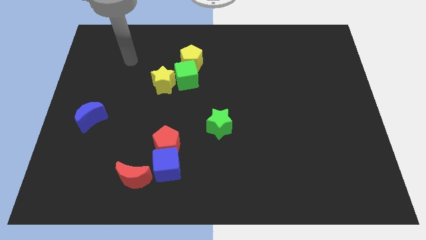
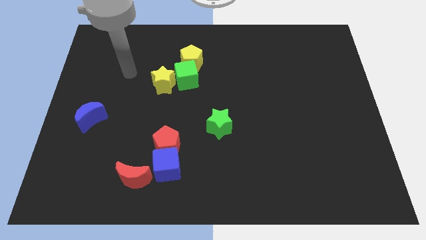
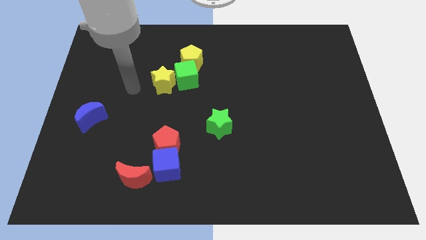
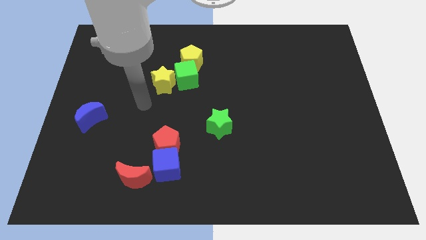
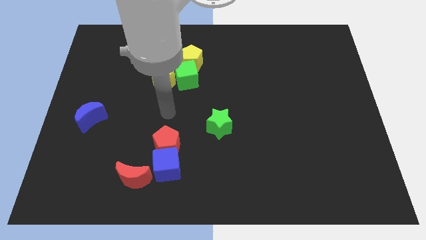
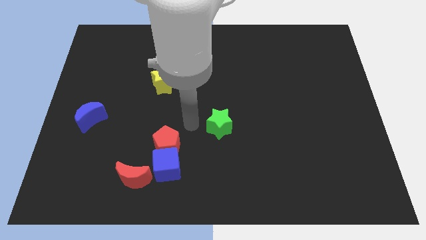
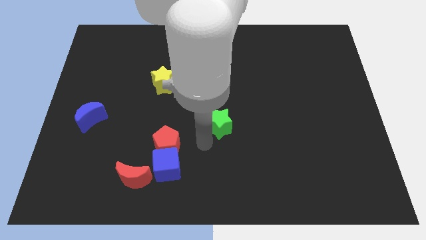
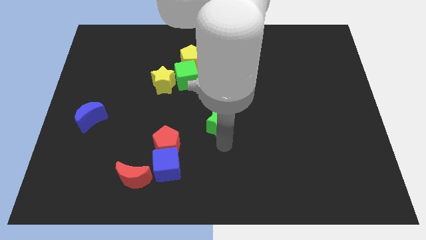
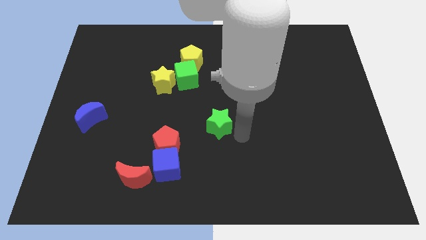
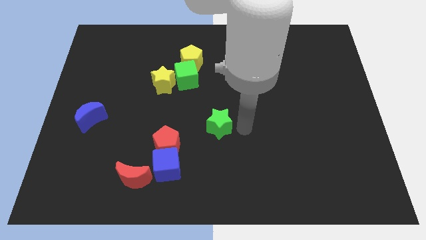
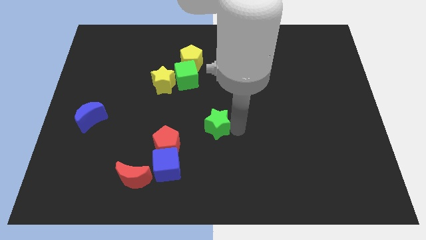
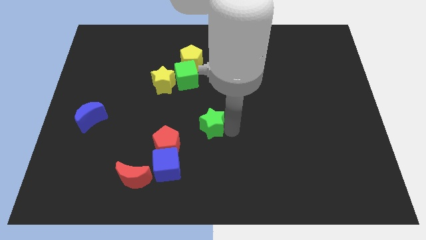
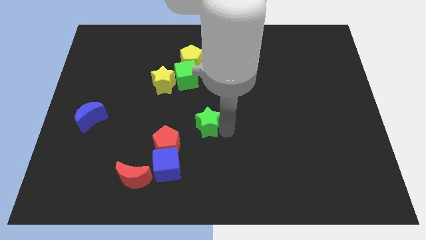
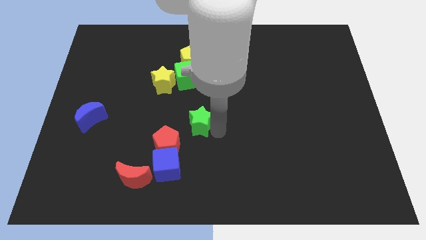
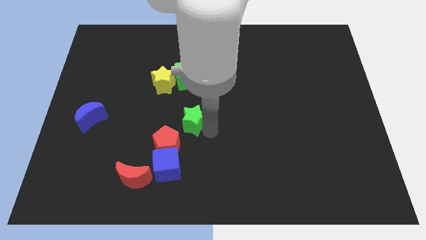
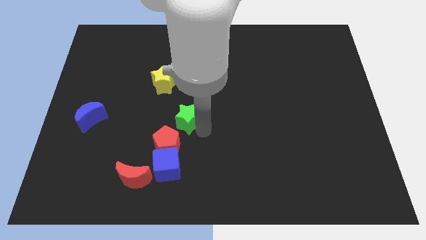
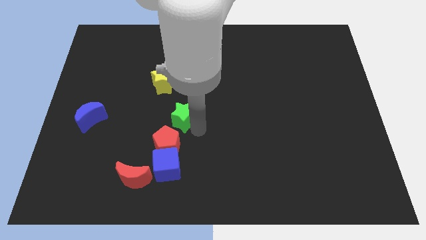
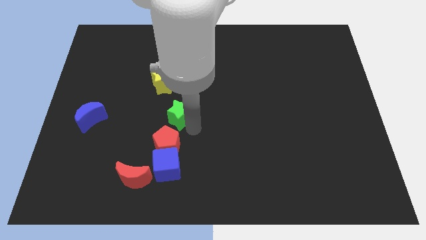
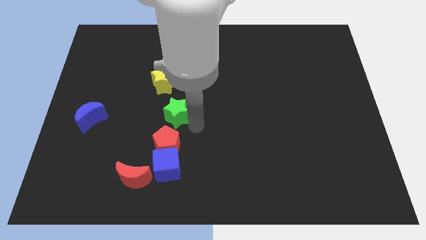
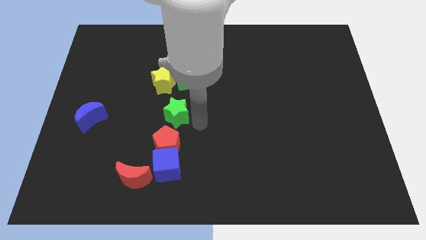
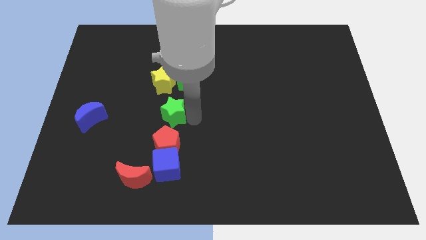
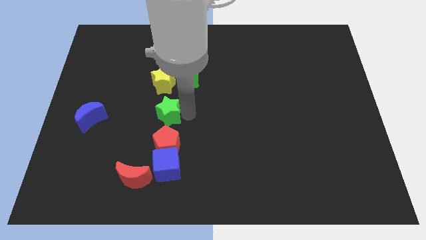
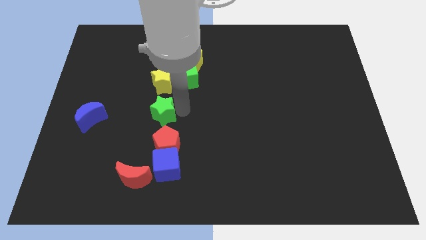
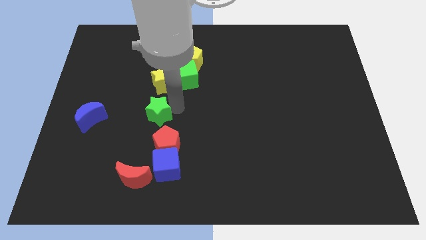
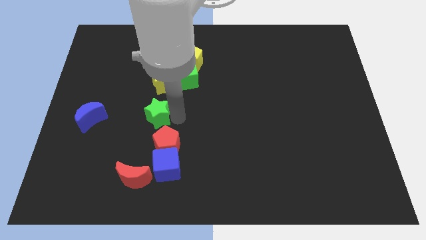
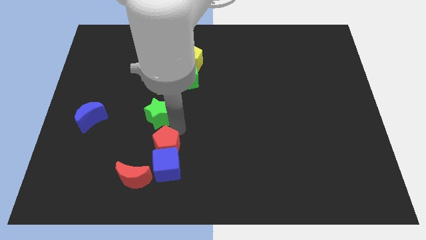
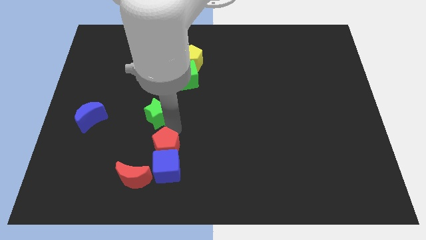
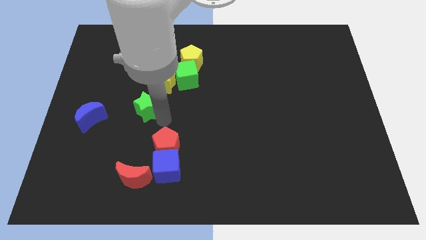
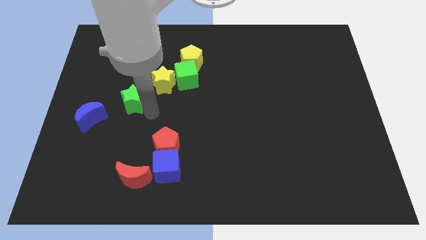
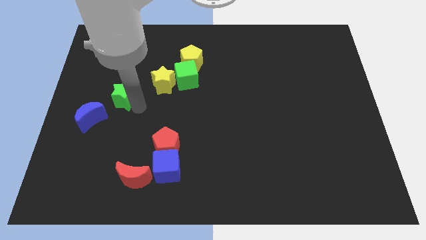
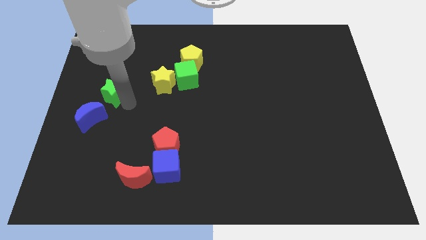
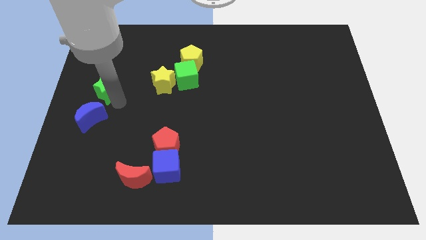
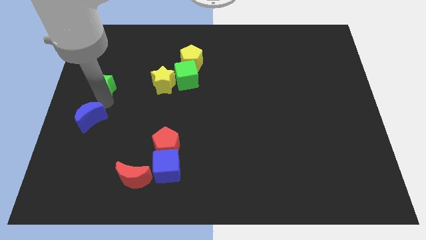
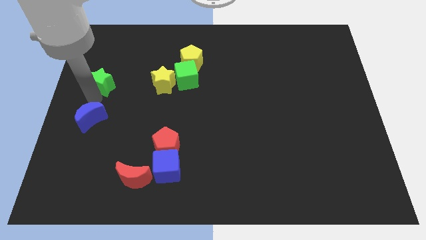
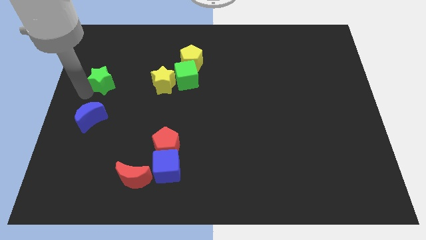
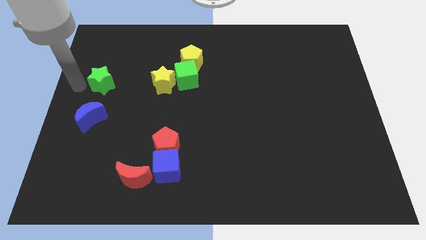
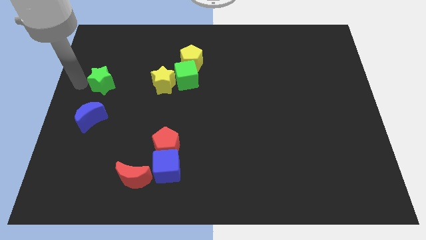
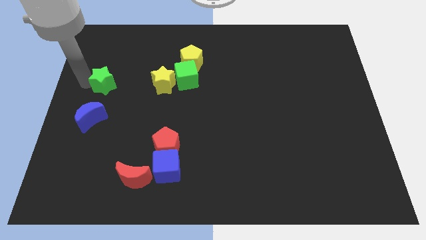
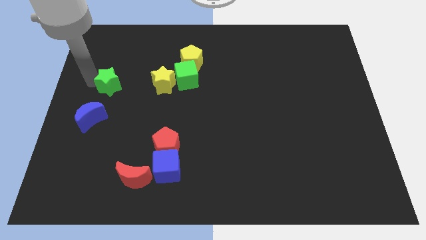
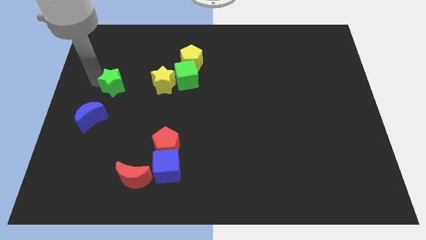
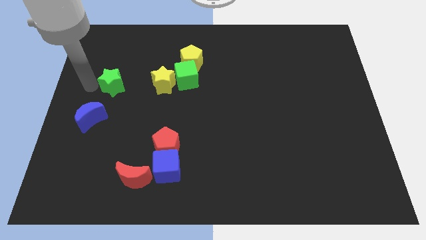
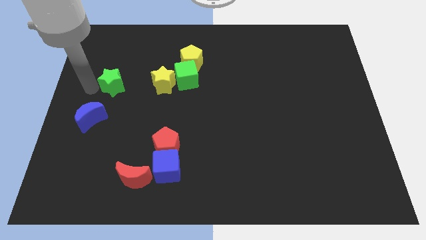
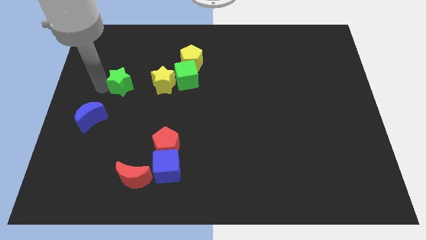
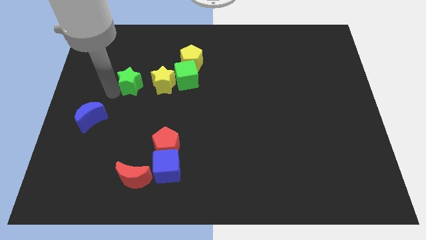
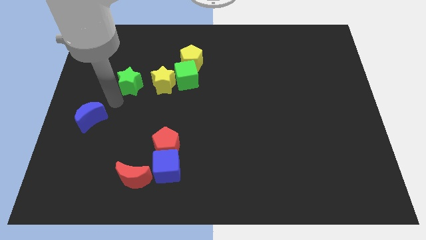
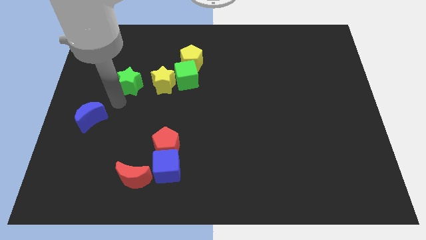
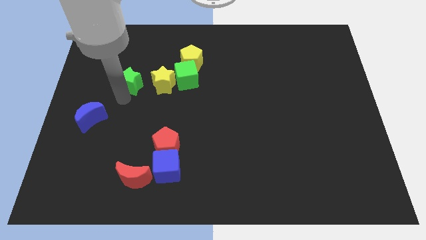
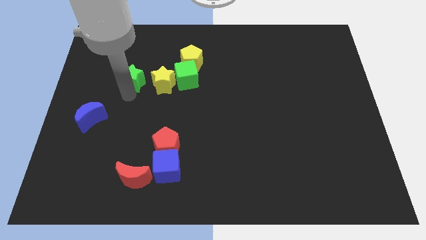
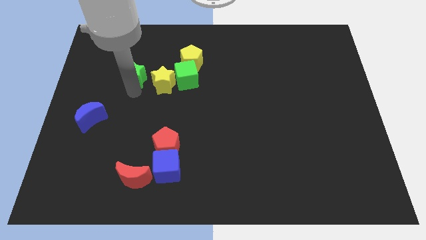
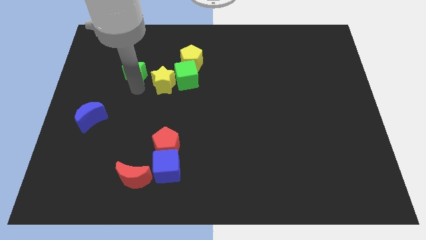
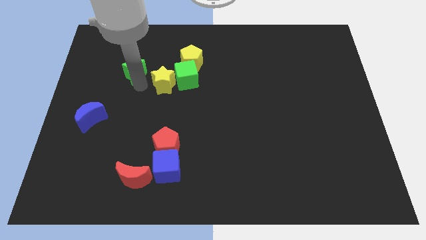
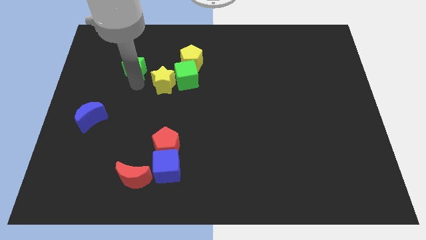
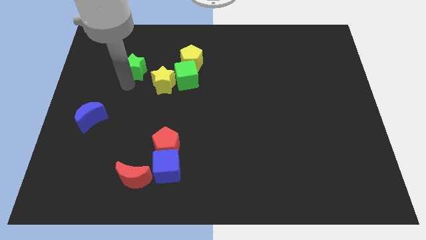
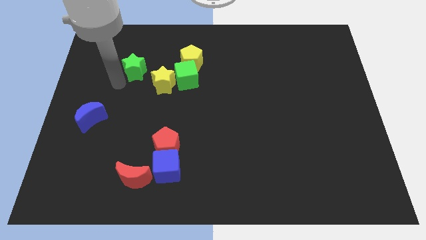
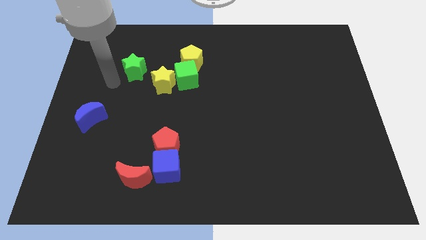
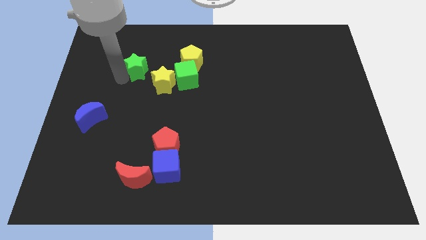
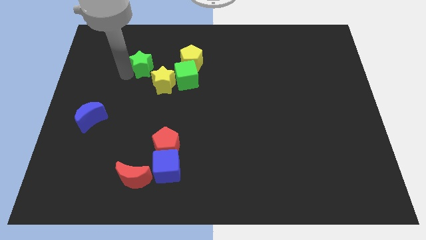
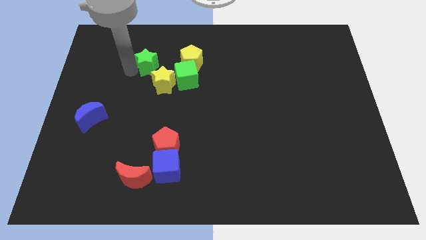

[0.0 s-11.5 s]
put the green star diagonally up and to the left of the green cube

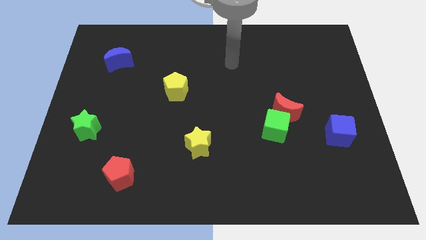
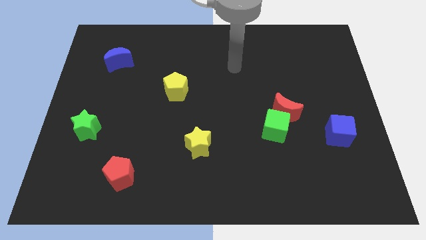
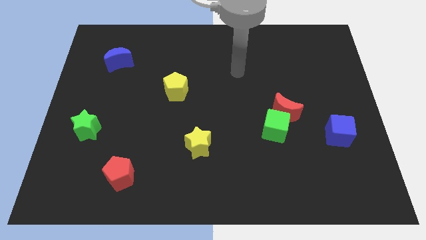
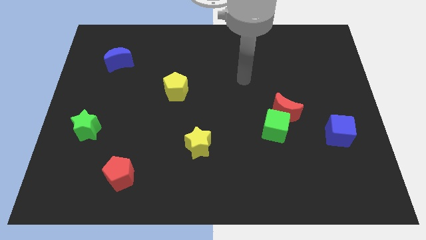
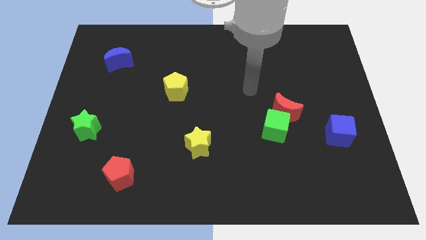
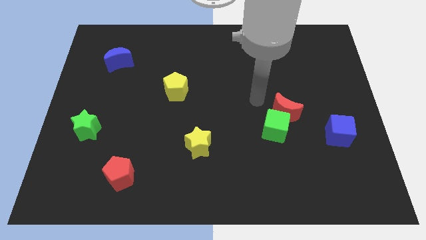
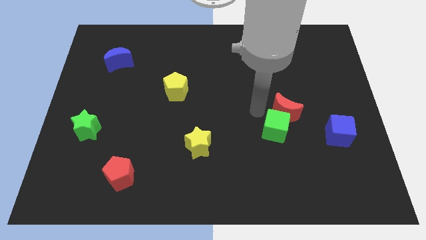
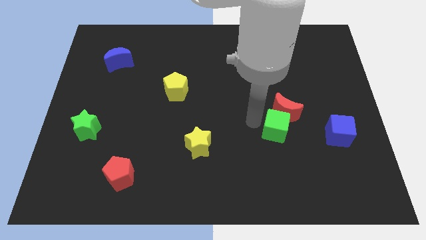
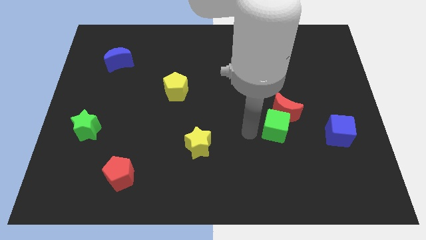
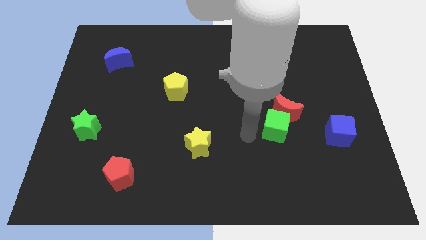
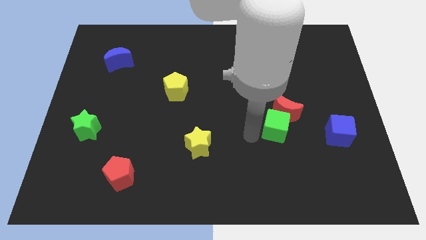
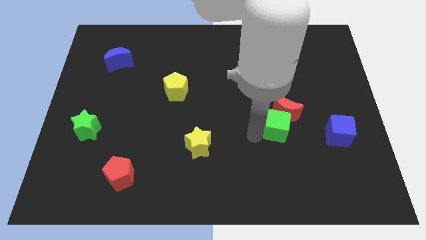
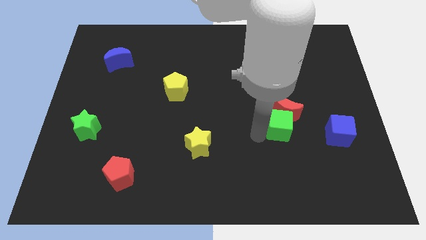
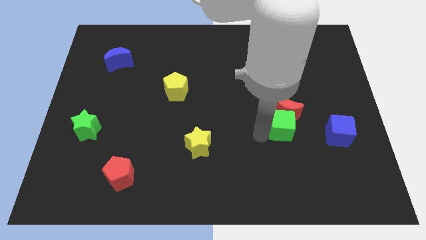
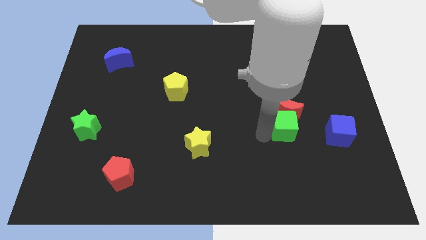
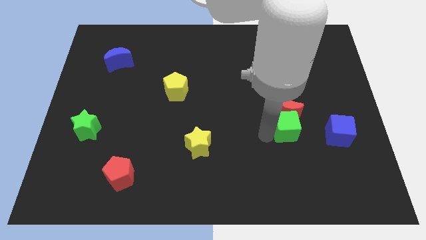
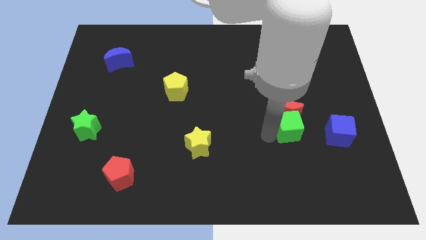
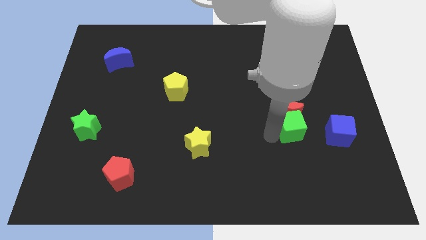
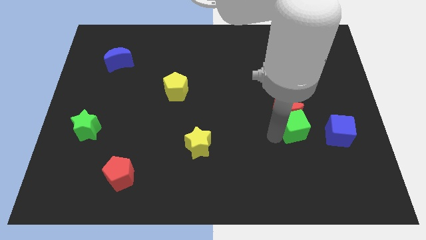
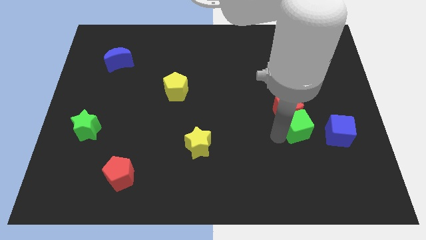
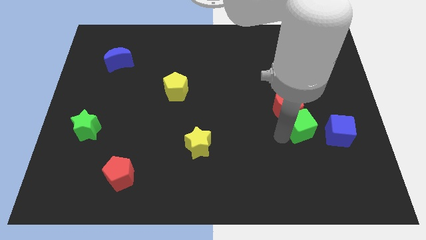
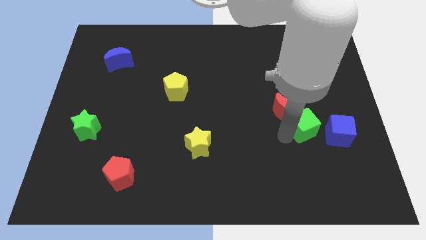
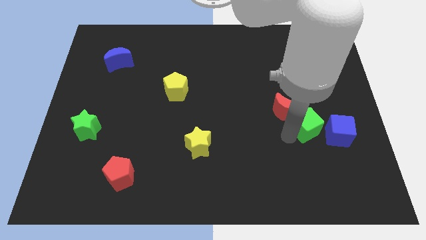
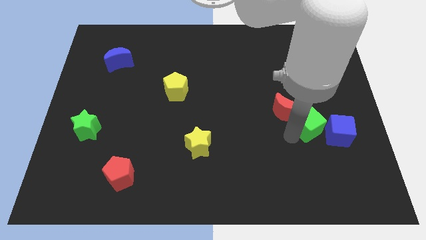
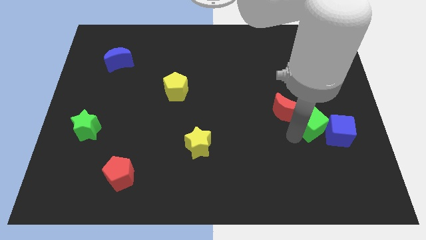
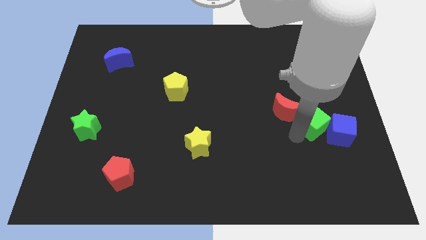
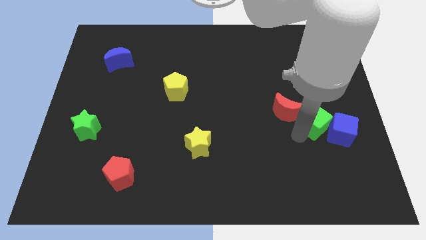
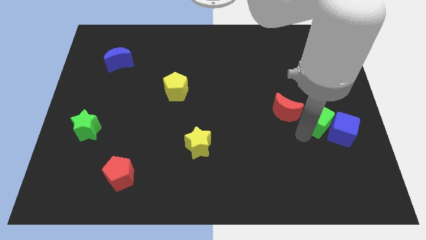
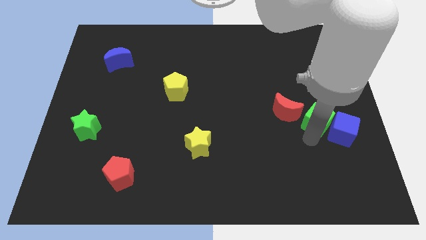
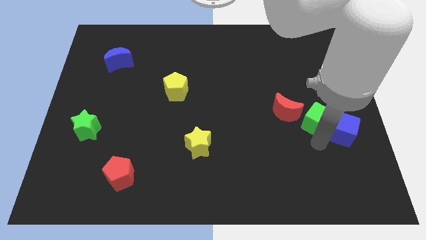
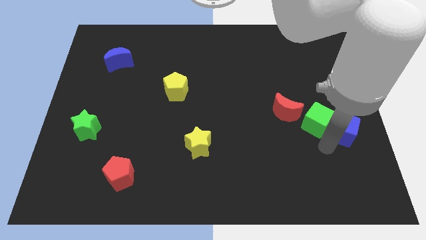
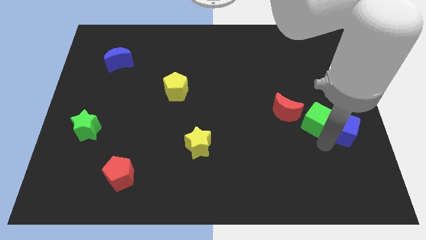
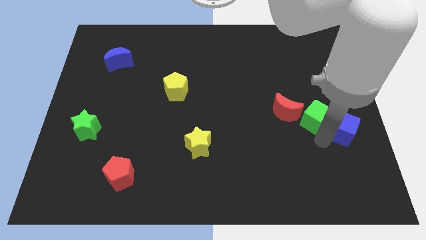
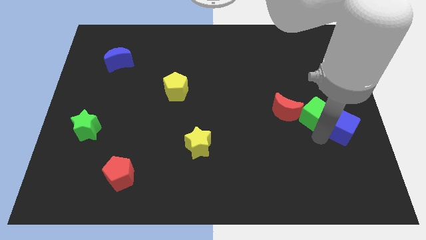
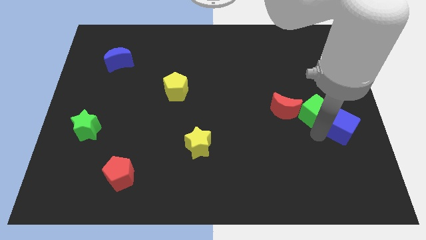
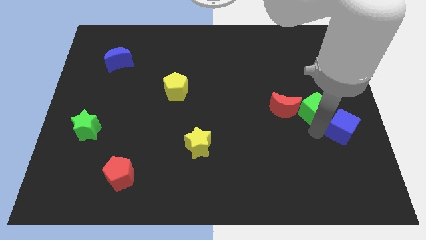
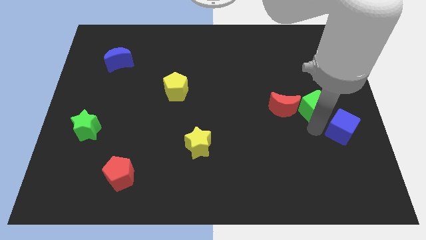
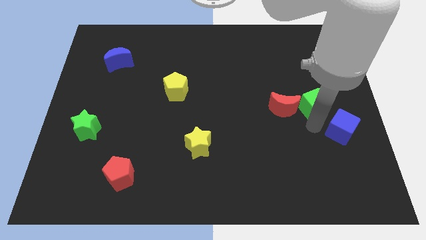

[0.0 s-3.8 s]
move the green cube to the top right side of the red moon
